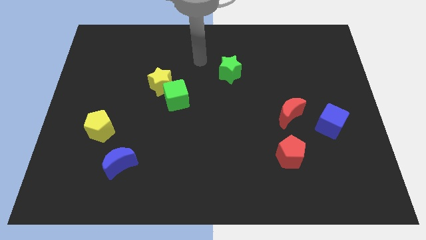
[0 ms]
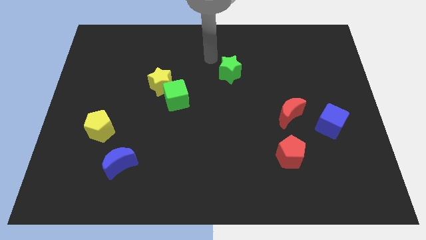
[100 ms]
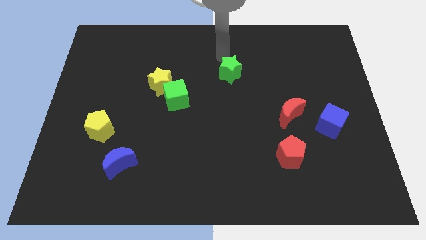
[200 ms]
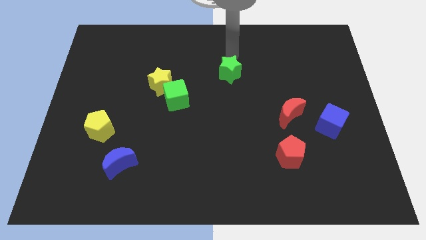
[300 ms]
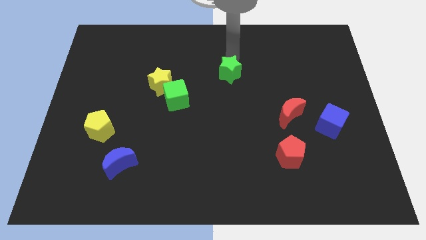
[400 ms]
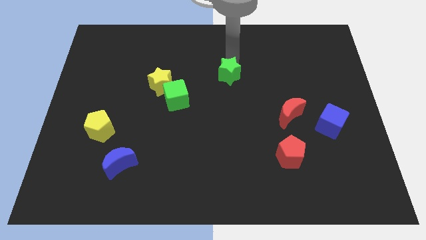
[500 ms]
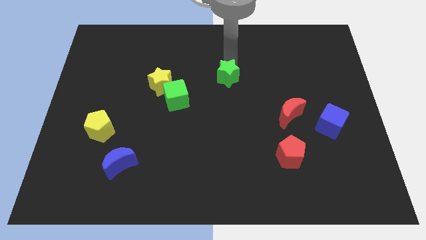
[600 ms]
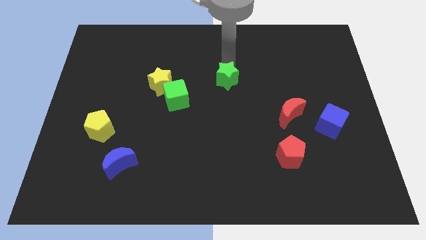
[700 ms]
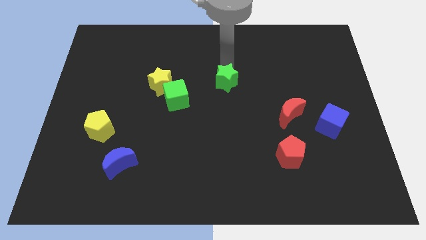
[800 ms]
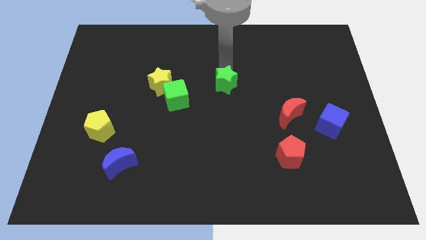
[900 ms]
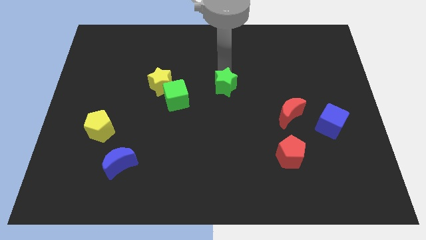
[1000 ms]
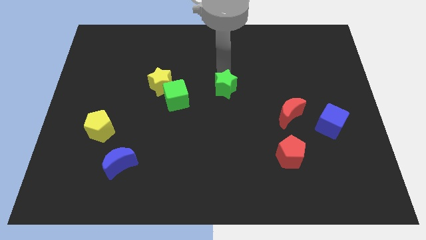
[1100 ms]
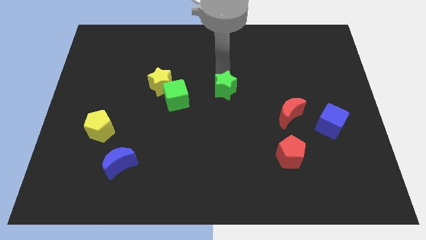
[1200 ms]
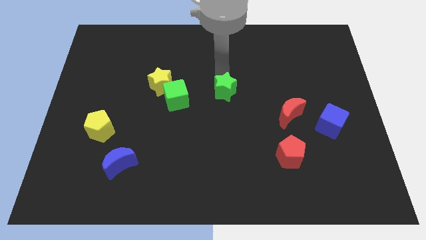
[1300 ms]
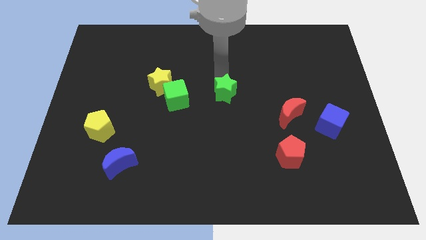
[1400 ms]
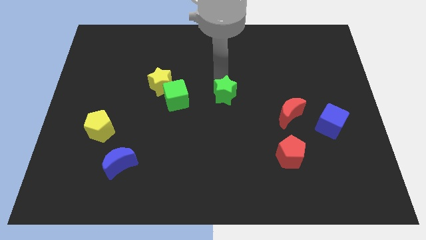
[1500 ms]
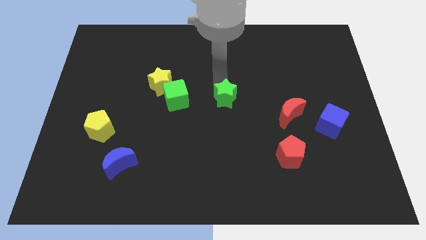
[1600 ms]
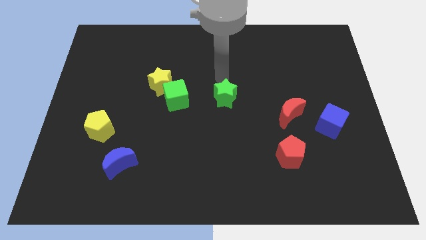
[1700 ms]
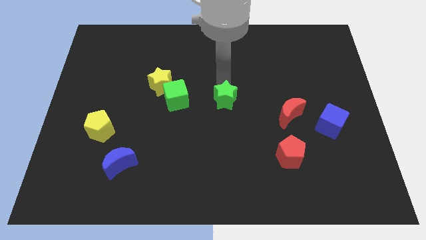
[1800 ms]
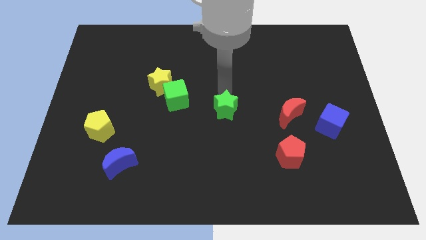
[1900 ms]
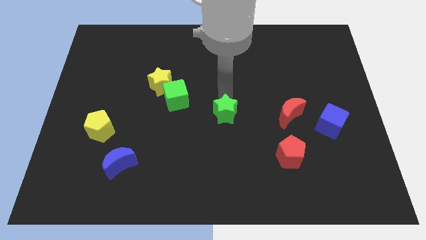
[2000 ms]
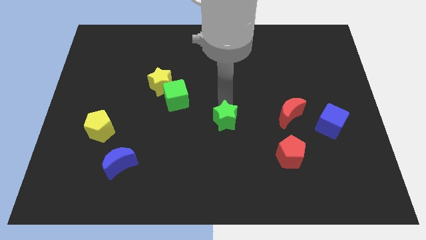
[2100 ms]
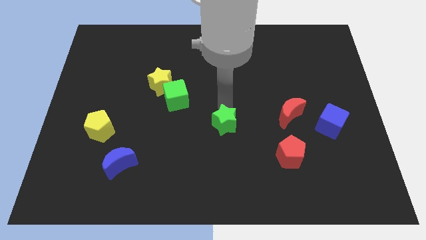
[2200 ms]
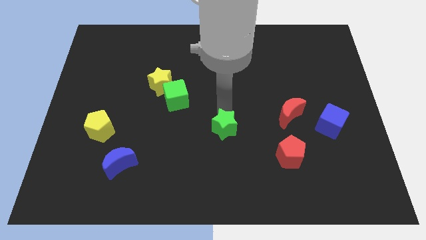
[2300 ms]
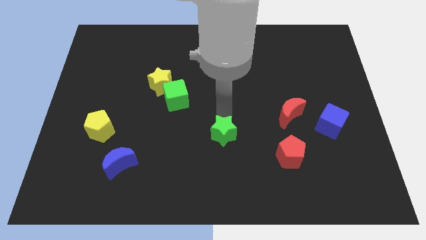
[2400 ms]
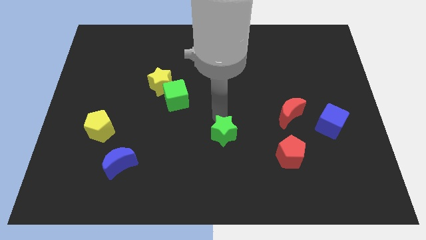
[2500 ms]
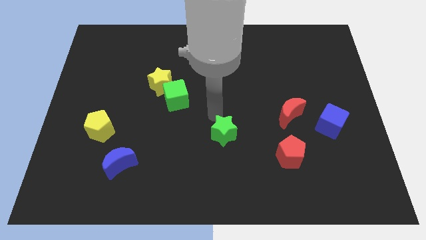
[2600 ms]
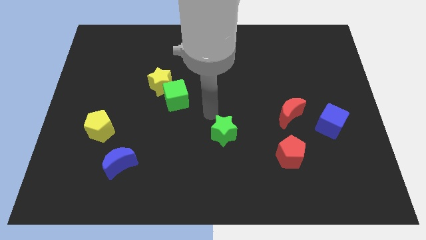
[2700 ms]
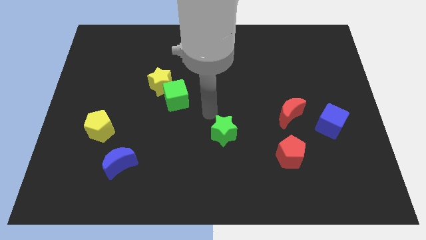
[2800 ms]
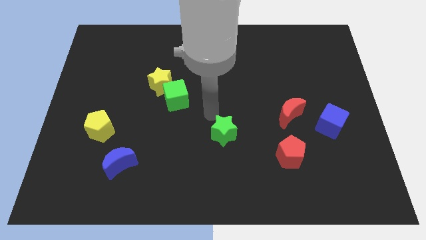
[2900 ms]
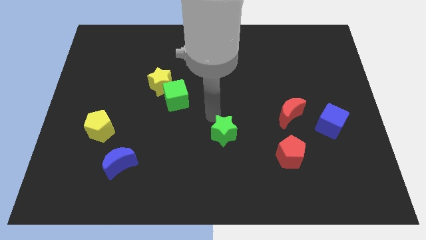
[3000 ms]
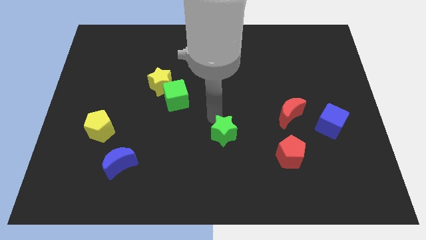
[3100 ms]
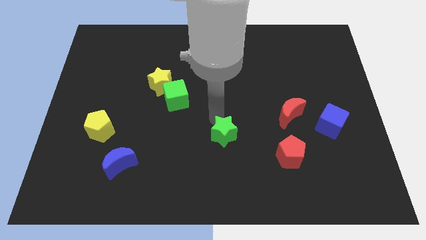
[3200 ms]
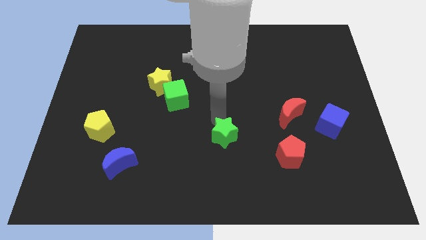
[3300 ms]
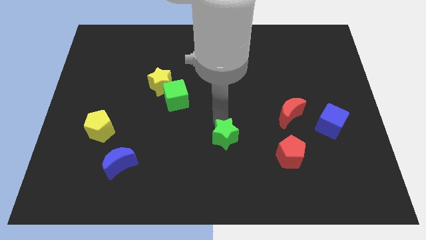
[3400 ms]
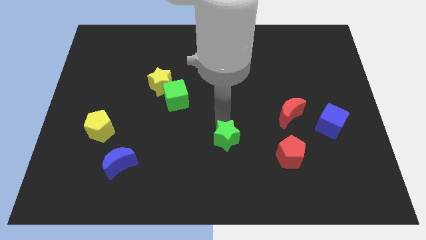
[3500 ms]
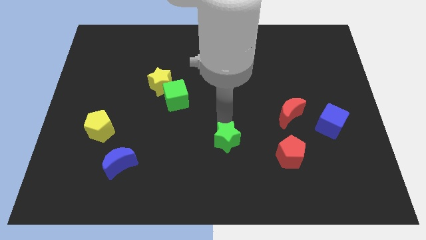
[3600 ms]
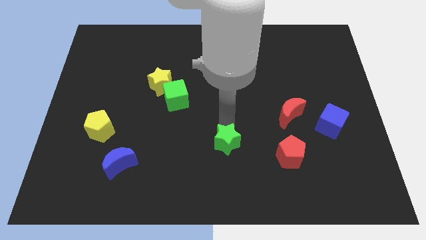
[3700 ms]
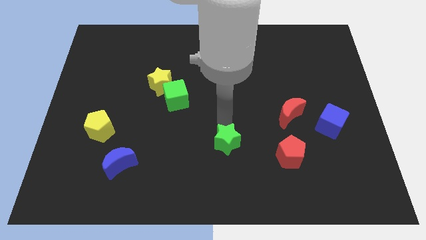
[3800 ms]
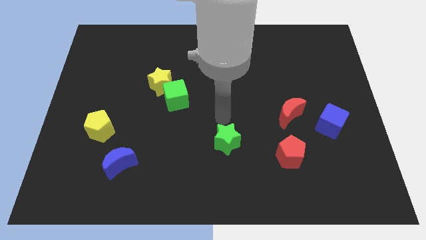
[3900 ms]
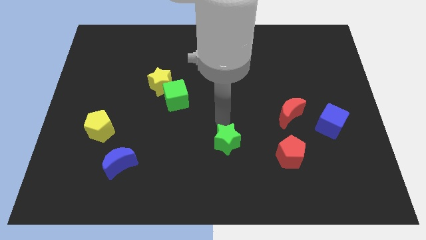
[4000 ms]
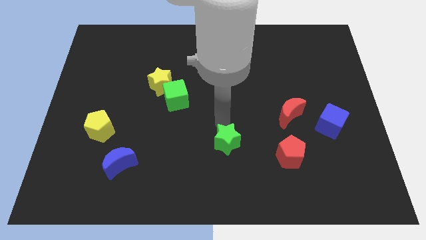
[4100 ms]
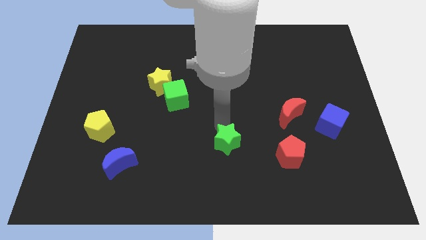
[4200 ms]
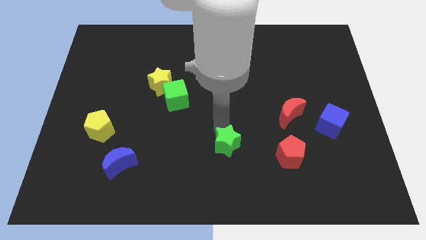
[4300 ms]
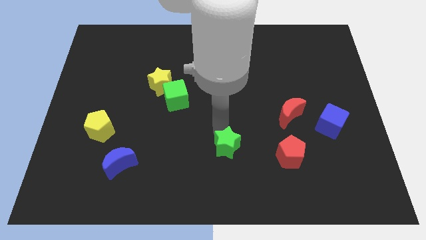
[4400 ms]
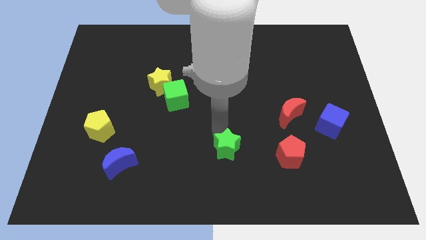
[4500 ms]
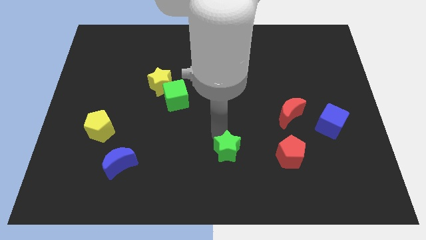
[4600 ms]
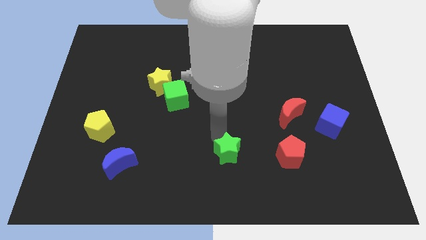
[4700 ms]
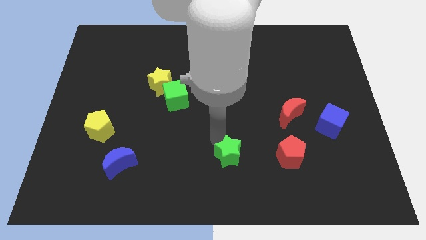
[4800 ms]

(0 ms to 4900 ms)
slide the green star to the bottom

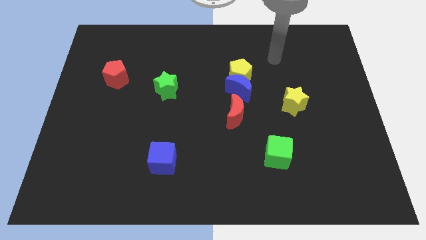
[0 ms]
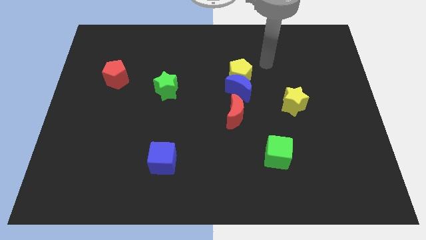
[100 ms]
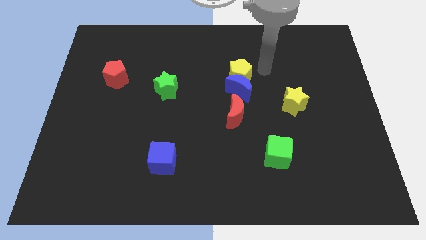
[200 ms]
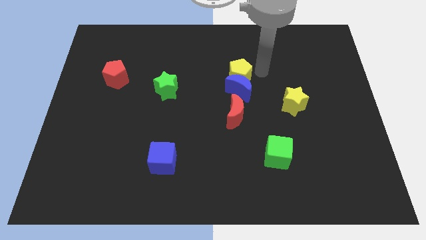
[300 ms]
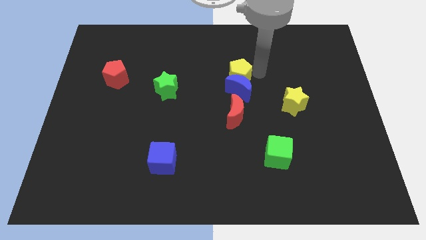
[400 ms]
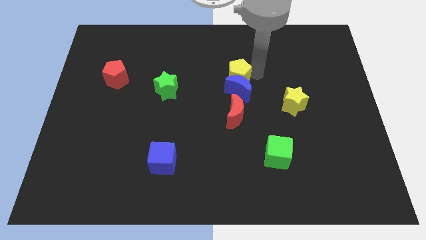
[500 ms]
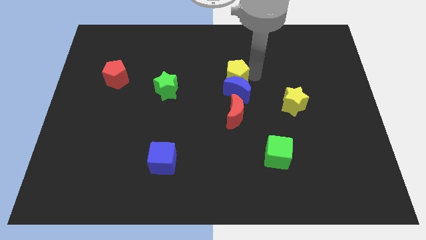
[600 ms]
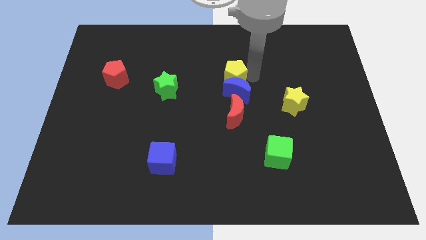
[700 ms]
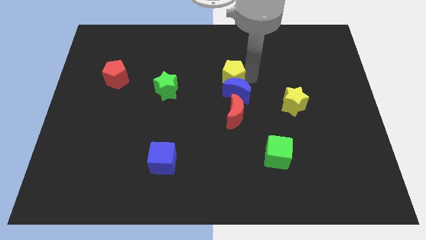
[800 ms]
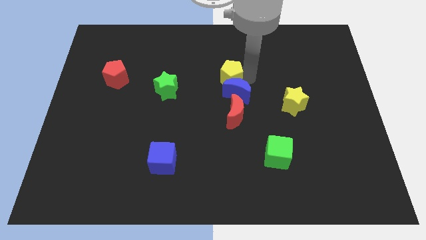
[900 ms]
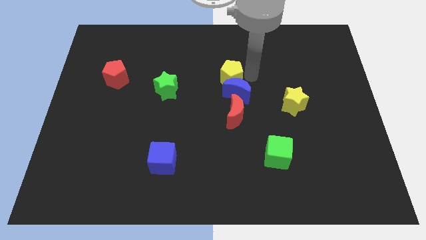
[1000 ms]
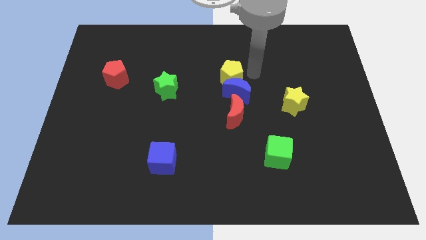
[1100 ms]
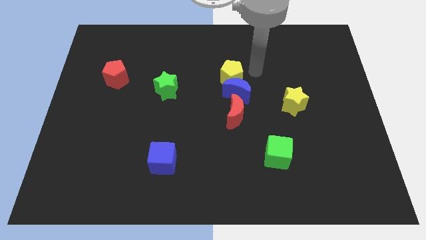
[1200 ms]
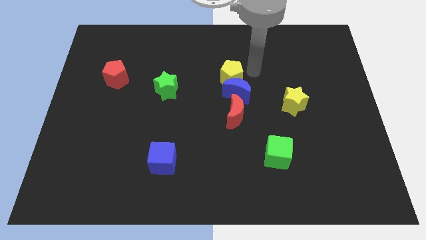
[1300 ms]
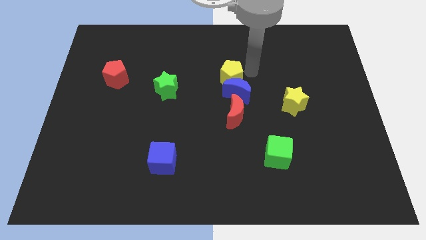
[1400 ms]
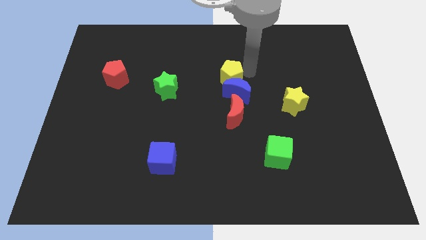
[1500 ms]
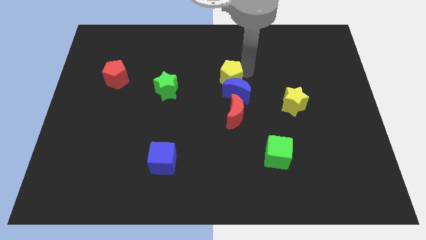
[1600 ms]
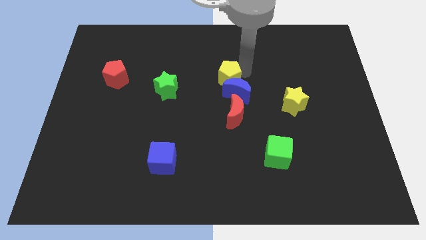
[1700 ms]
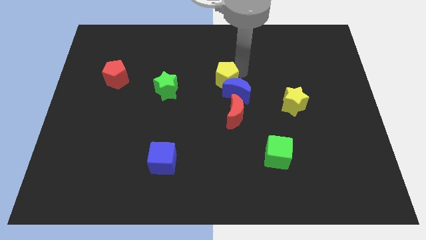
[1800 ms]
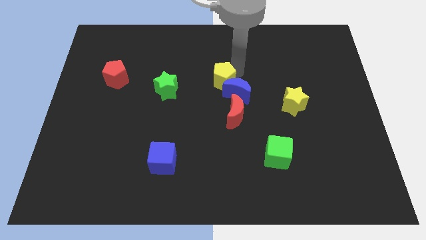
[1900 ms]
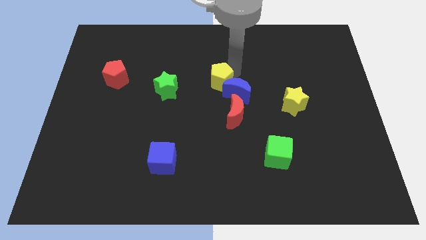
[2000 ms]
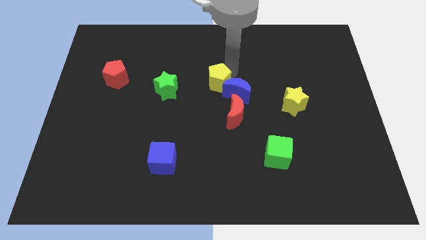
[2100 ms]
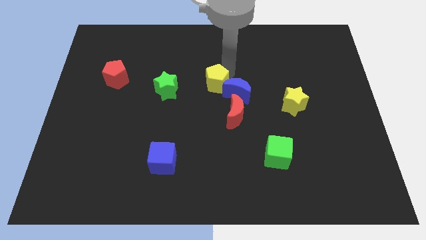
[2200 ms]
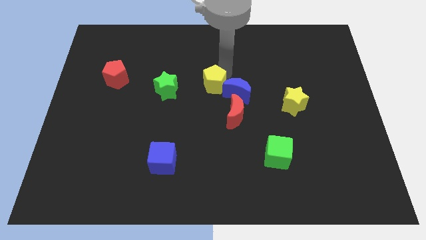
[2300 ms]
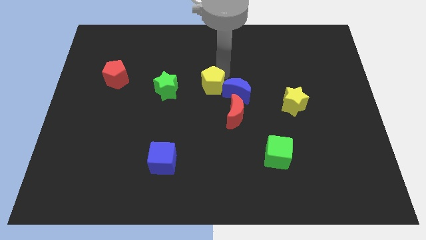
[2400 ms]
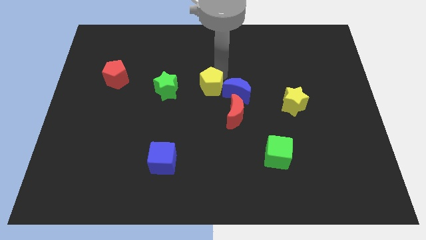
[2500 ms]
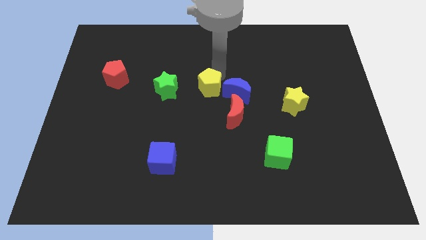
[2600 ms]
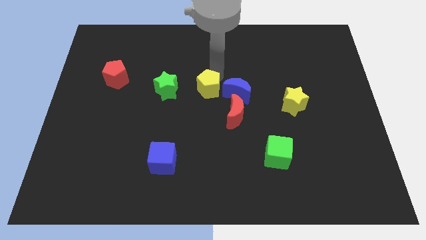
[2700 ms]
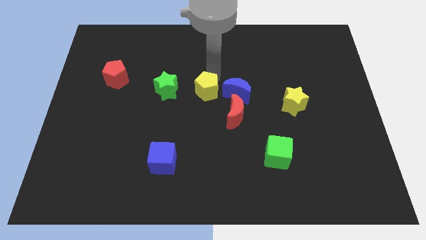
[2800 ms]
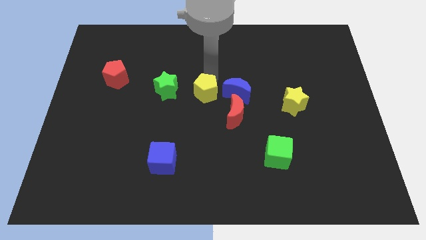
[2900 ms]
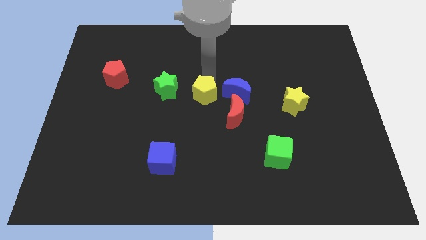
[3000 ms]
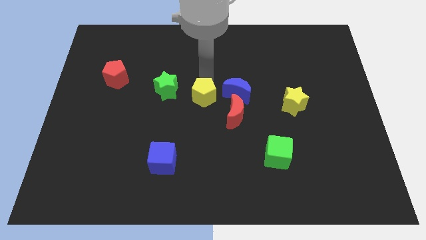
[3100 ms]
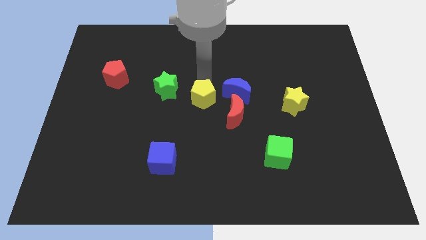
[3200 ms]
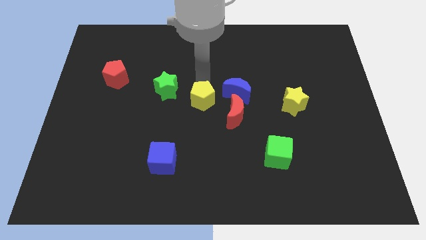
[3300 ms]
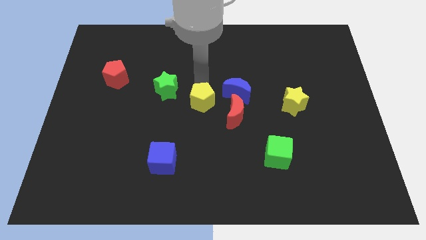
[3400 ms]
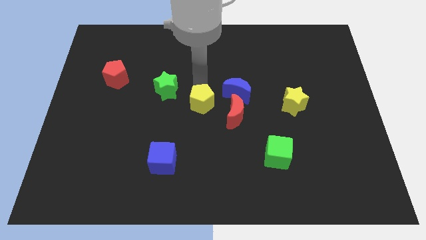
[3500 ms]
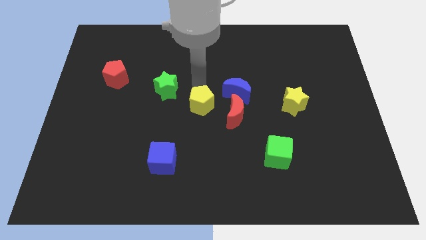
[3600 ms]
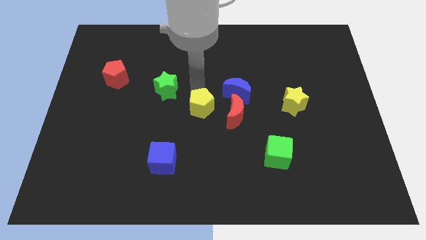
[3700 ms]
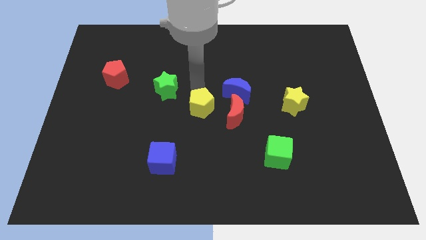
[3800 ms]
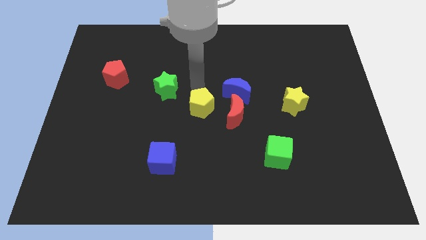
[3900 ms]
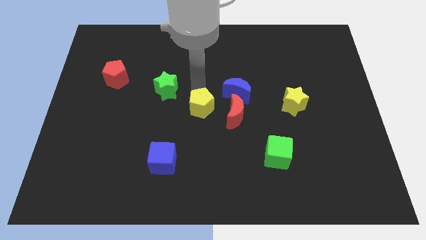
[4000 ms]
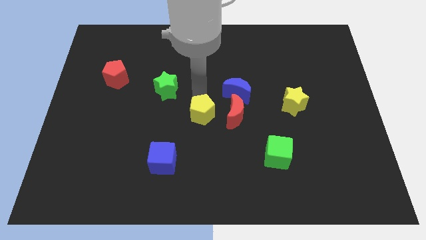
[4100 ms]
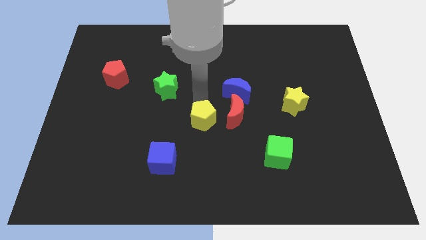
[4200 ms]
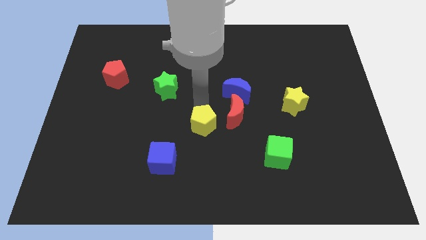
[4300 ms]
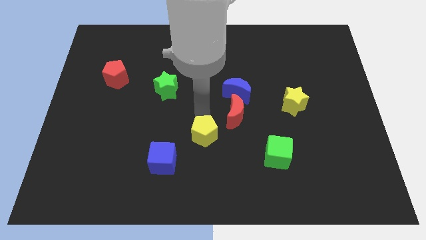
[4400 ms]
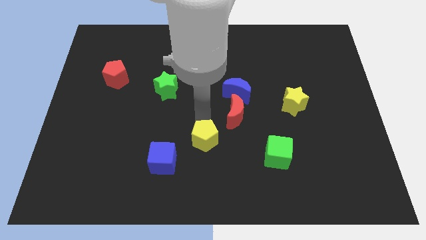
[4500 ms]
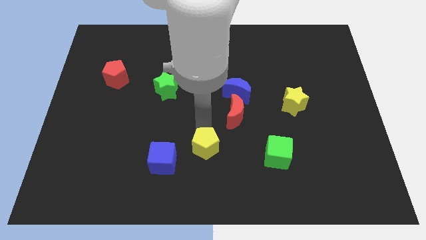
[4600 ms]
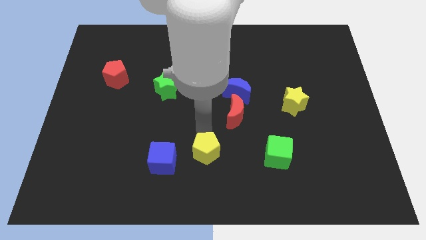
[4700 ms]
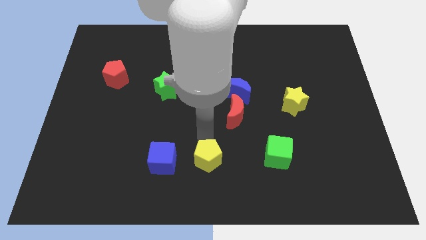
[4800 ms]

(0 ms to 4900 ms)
move the yellow pentagon to the bottom
